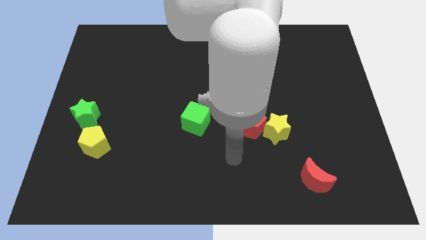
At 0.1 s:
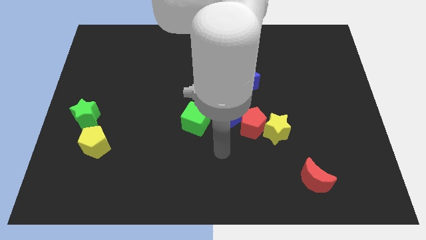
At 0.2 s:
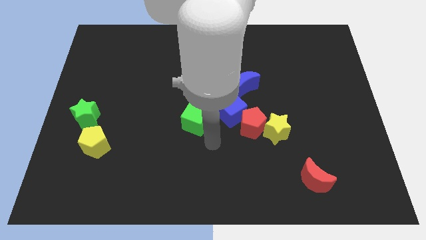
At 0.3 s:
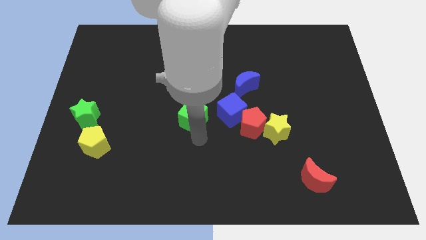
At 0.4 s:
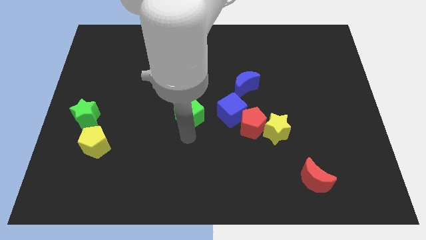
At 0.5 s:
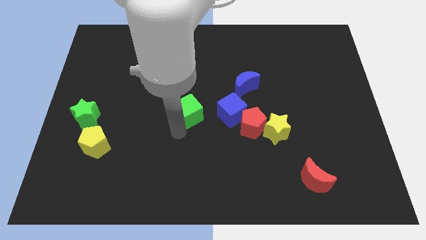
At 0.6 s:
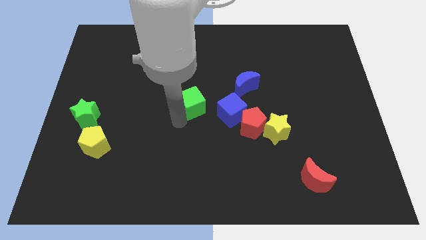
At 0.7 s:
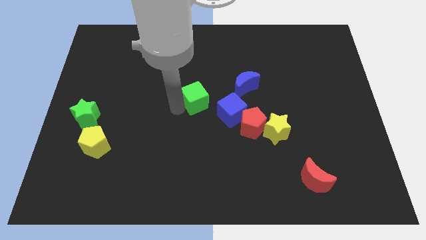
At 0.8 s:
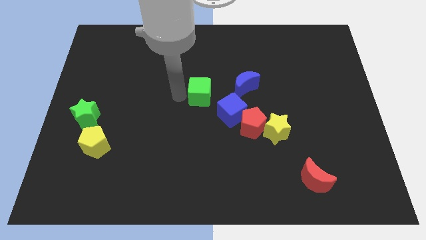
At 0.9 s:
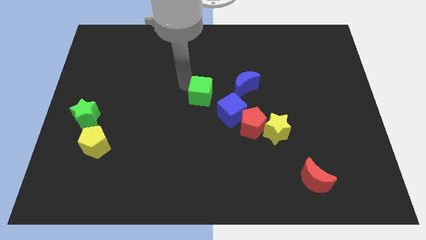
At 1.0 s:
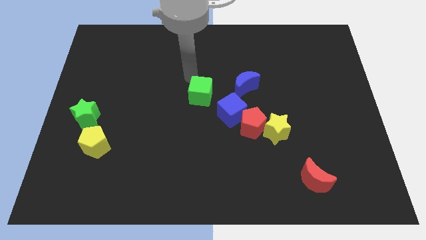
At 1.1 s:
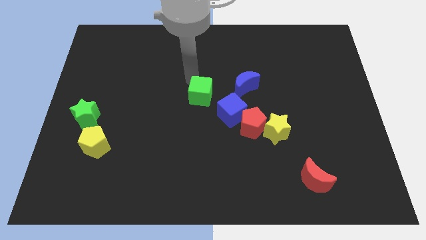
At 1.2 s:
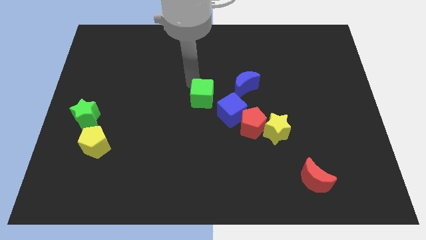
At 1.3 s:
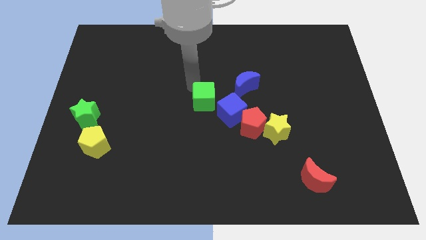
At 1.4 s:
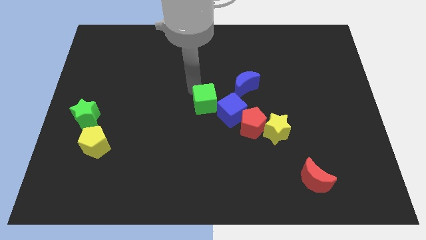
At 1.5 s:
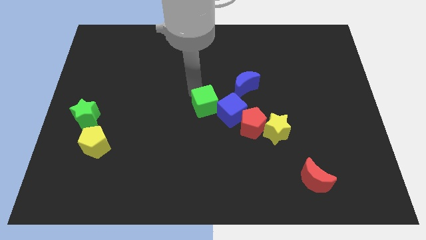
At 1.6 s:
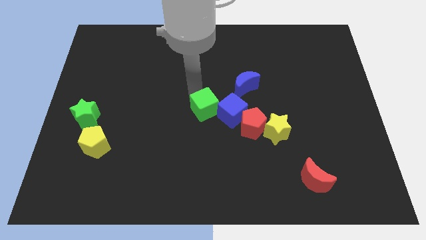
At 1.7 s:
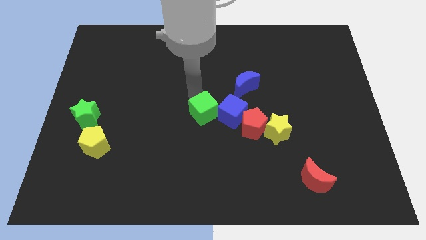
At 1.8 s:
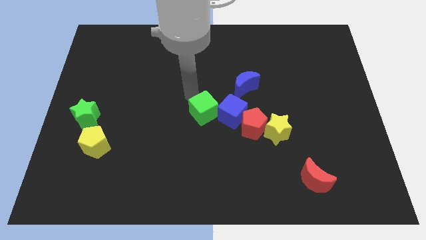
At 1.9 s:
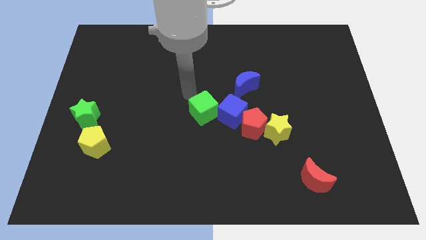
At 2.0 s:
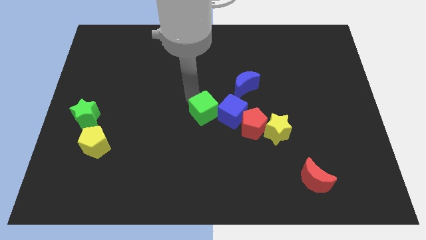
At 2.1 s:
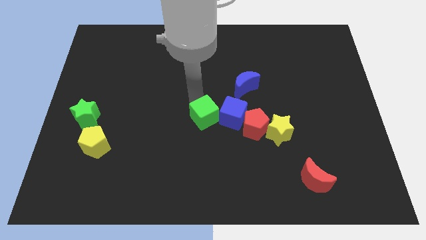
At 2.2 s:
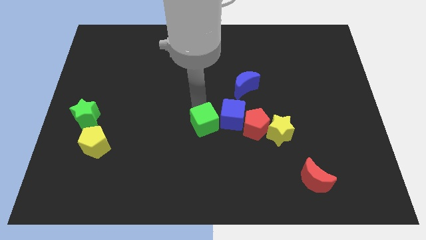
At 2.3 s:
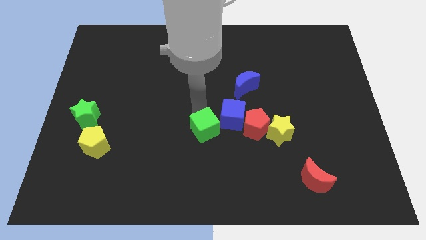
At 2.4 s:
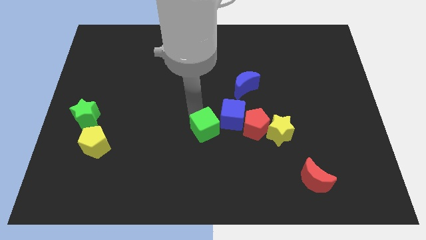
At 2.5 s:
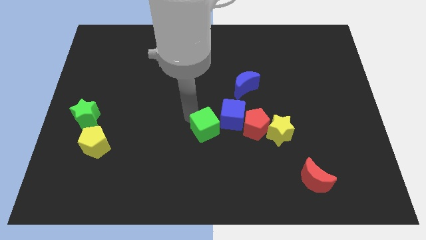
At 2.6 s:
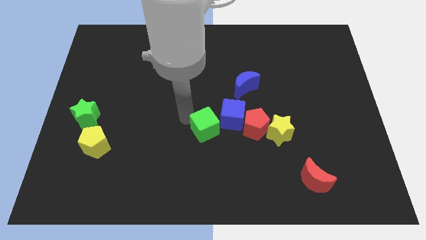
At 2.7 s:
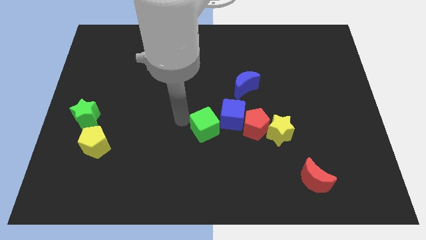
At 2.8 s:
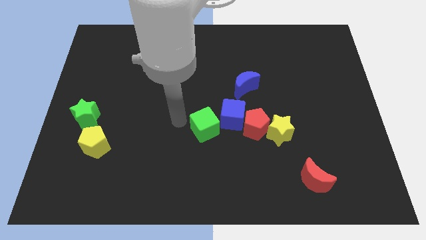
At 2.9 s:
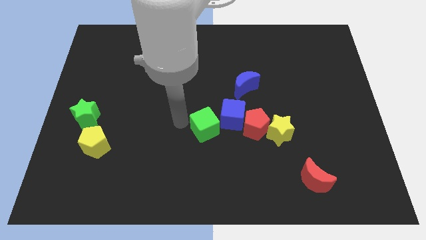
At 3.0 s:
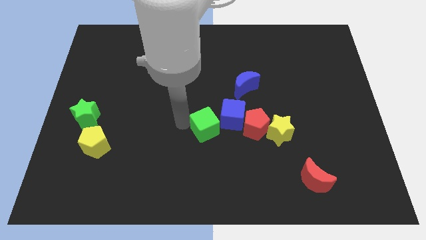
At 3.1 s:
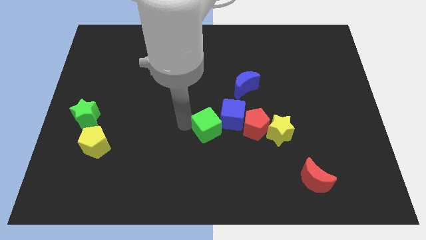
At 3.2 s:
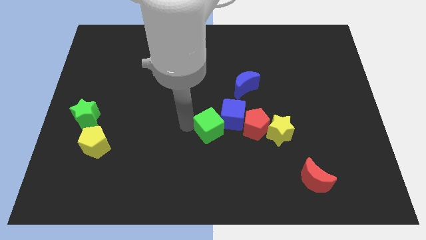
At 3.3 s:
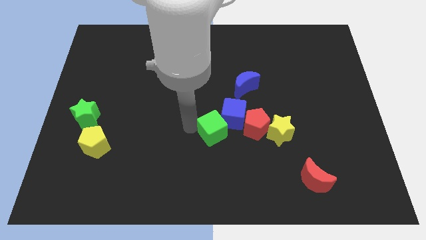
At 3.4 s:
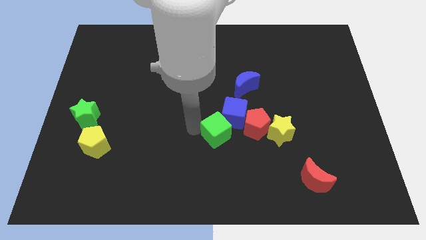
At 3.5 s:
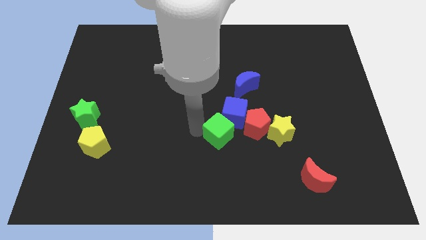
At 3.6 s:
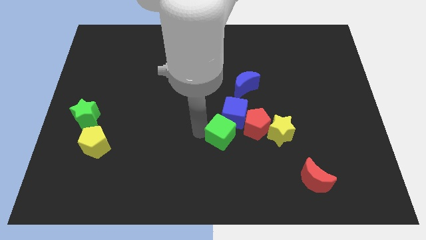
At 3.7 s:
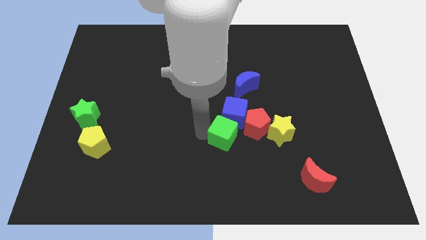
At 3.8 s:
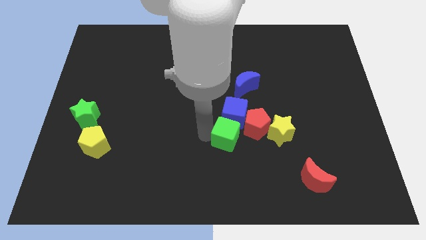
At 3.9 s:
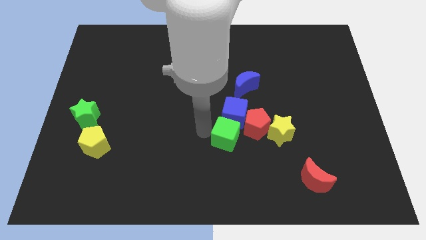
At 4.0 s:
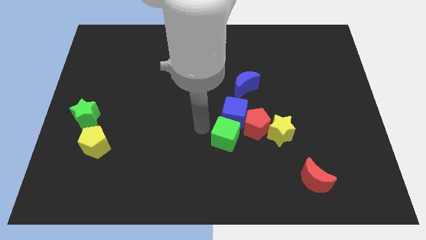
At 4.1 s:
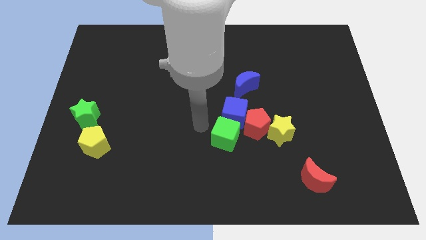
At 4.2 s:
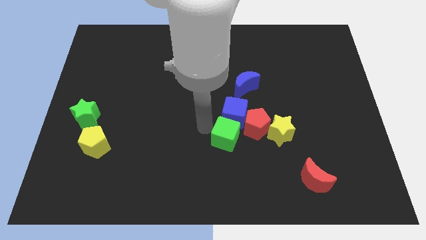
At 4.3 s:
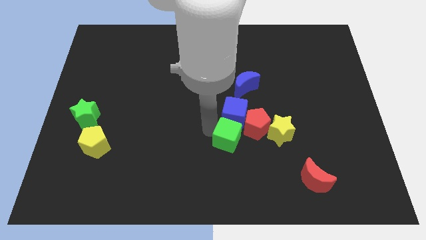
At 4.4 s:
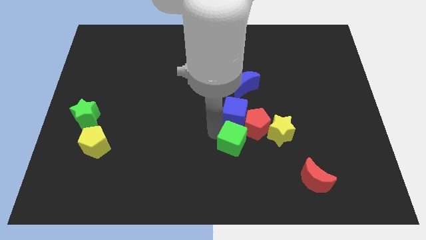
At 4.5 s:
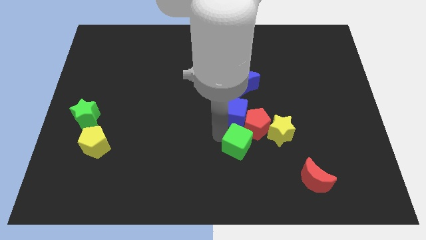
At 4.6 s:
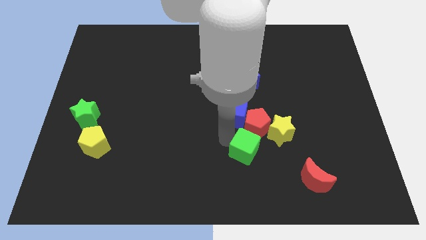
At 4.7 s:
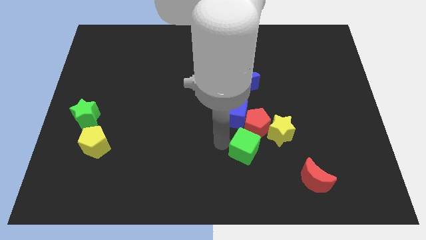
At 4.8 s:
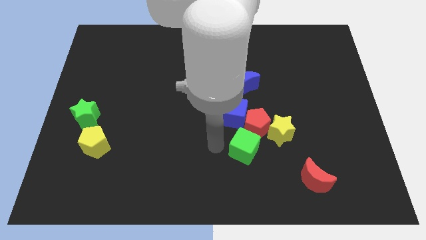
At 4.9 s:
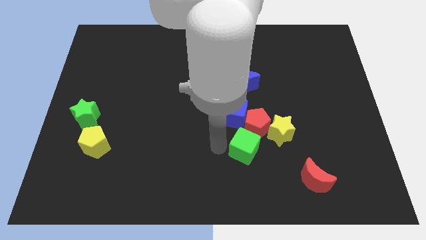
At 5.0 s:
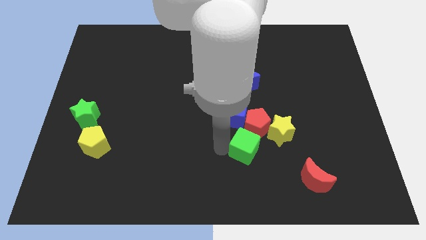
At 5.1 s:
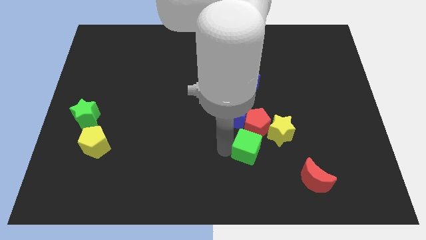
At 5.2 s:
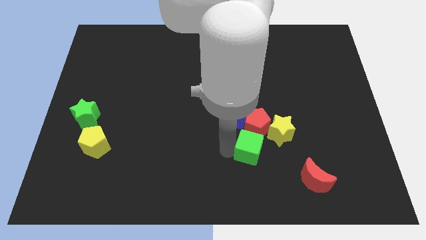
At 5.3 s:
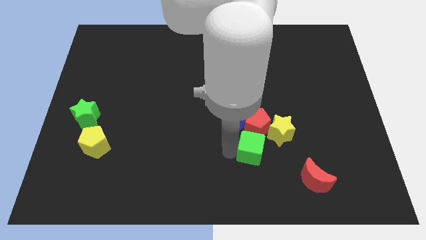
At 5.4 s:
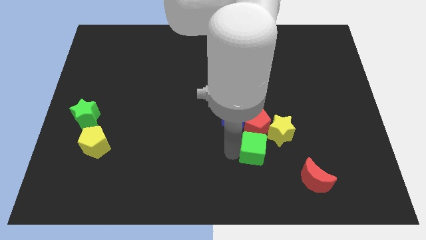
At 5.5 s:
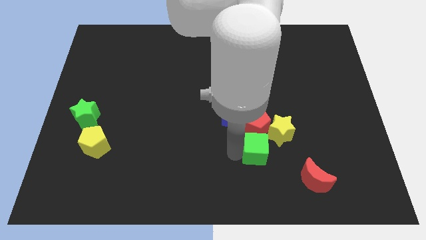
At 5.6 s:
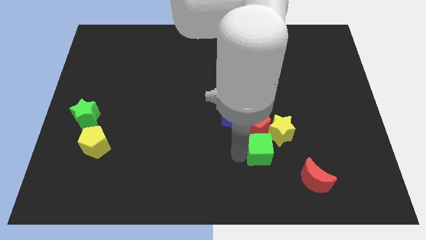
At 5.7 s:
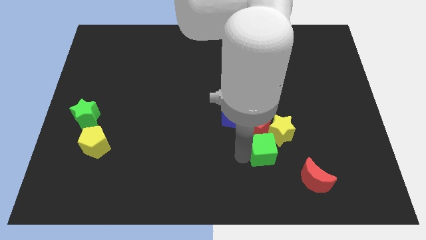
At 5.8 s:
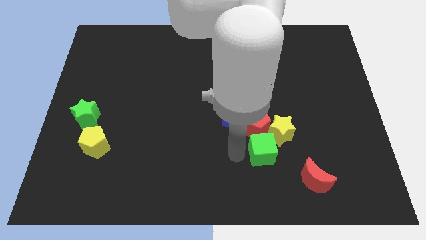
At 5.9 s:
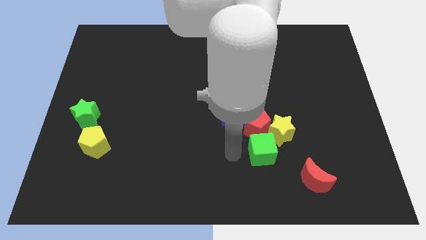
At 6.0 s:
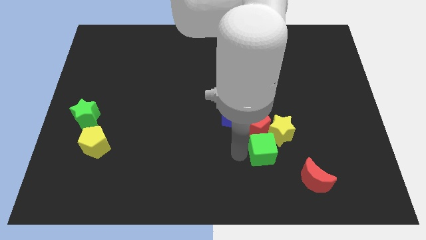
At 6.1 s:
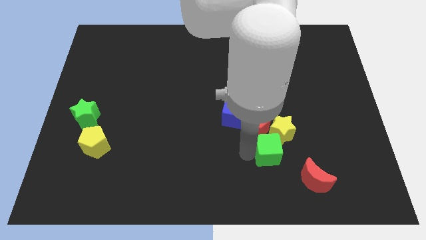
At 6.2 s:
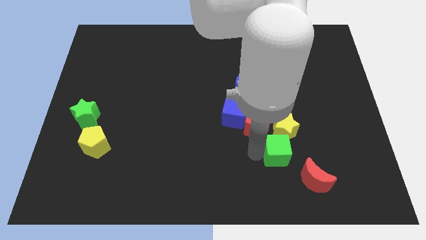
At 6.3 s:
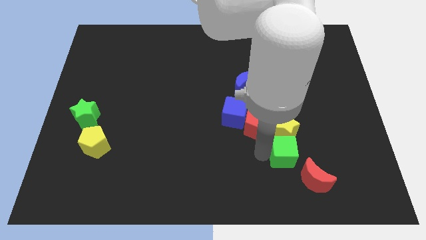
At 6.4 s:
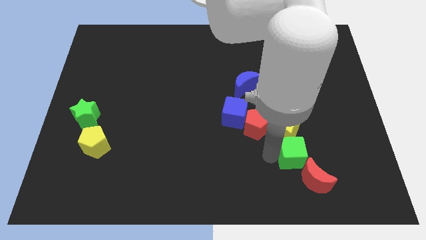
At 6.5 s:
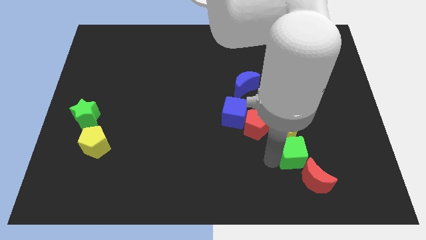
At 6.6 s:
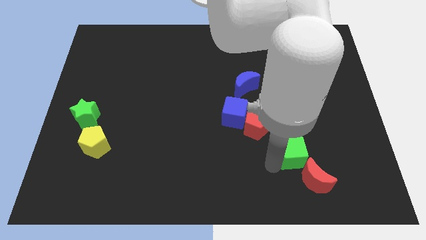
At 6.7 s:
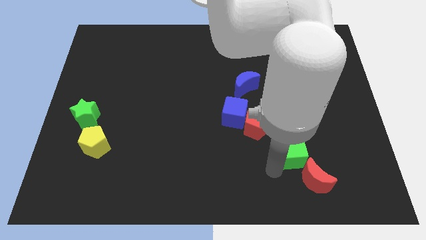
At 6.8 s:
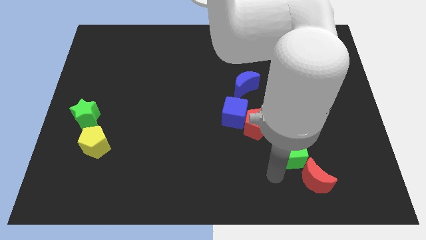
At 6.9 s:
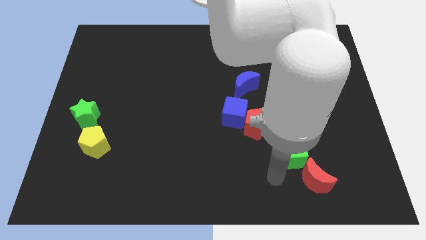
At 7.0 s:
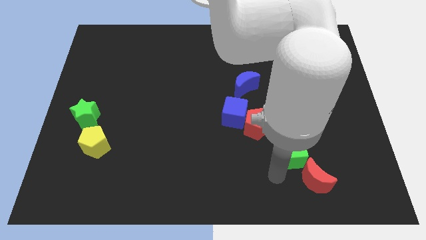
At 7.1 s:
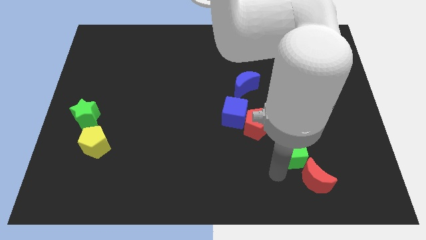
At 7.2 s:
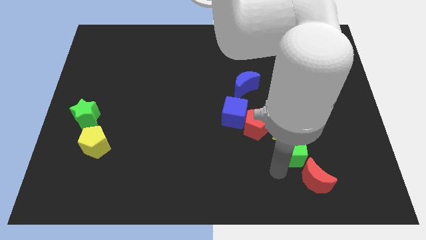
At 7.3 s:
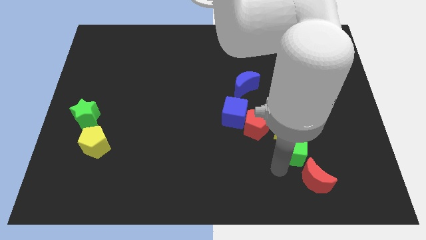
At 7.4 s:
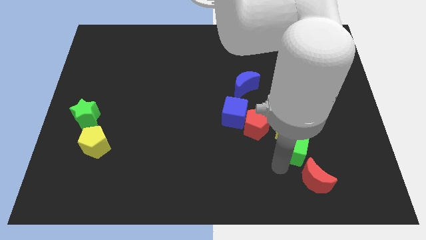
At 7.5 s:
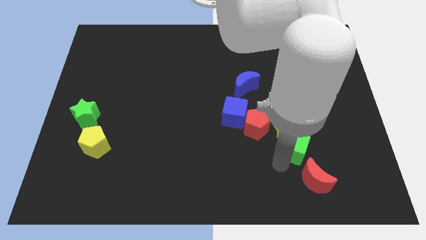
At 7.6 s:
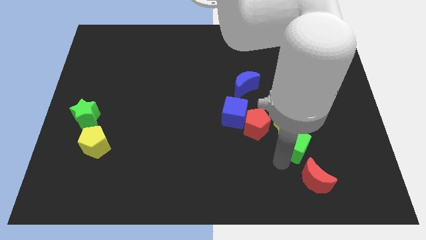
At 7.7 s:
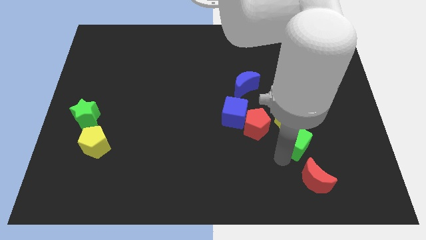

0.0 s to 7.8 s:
push the green cube right
